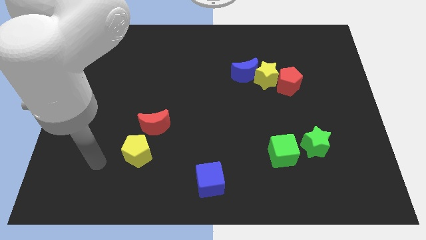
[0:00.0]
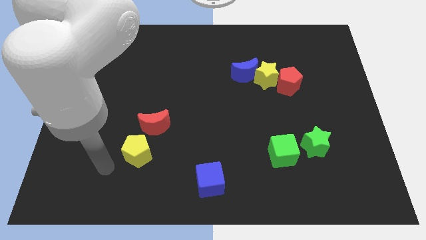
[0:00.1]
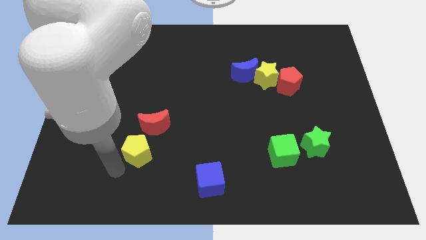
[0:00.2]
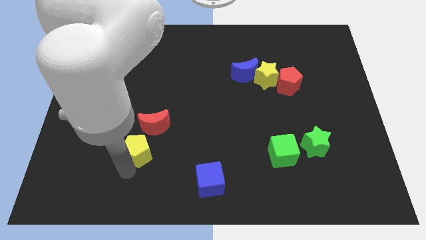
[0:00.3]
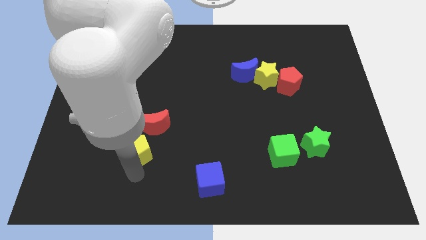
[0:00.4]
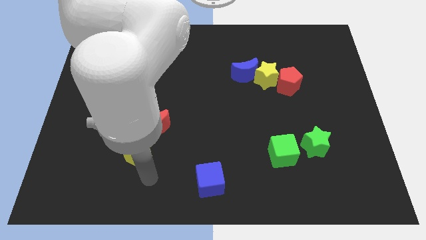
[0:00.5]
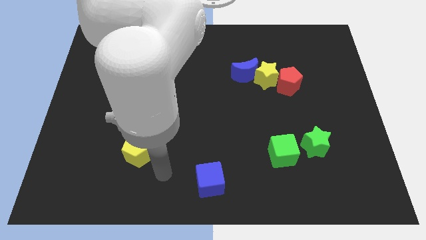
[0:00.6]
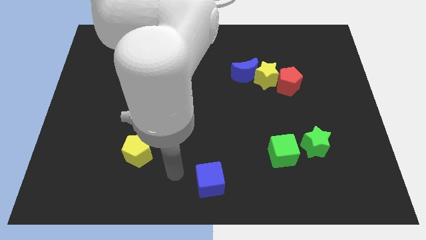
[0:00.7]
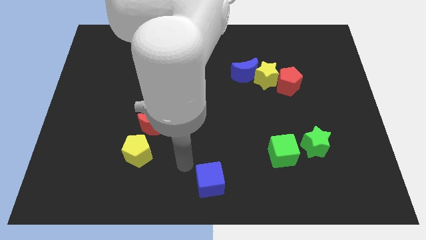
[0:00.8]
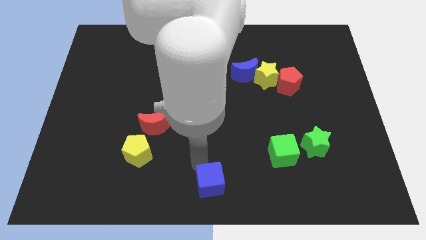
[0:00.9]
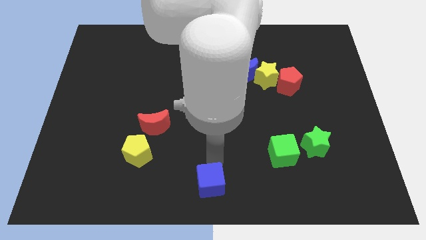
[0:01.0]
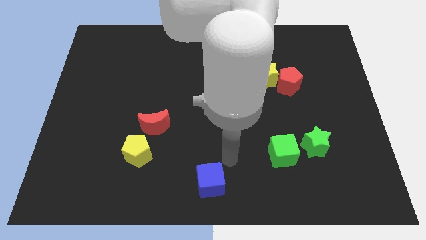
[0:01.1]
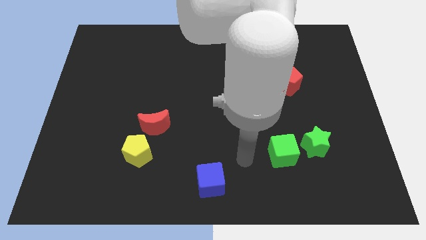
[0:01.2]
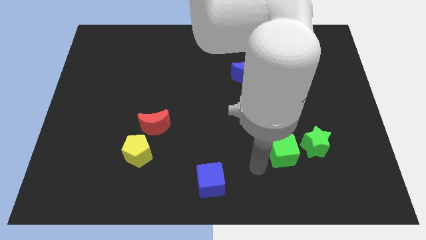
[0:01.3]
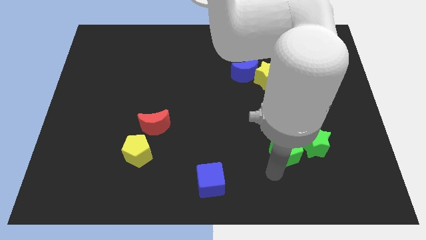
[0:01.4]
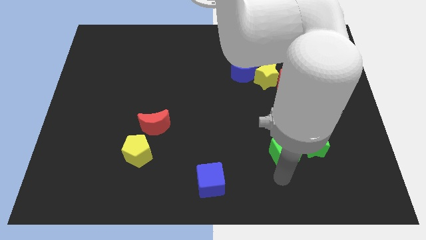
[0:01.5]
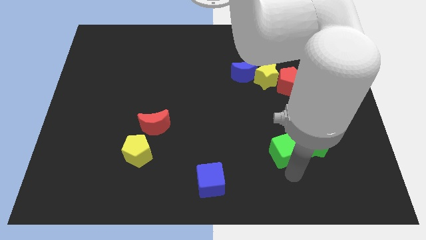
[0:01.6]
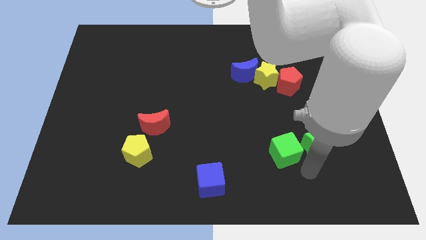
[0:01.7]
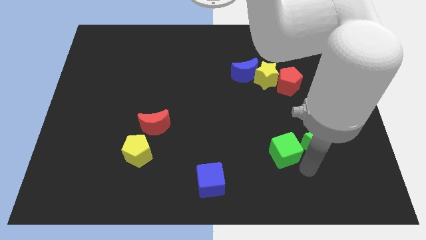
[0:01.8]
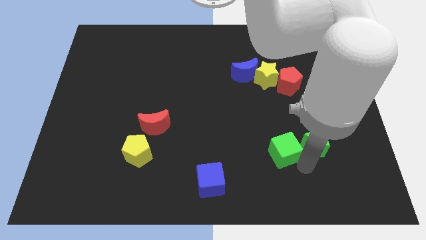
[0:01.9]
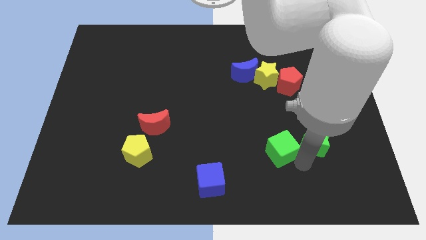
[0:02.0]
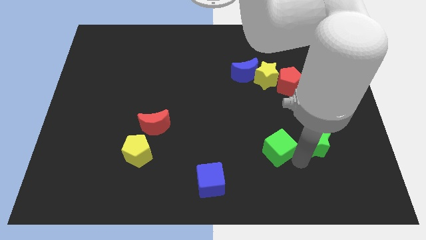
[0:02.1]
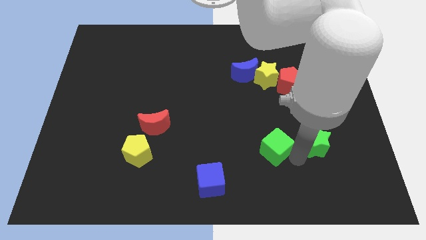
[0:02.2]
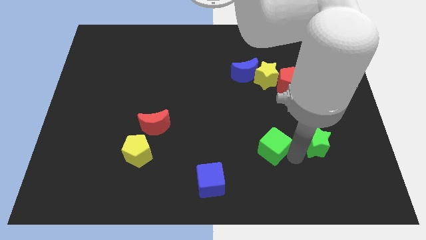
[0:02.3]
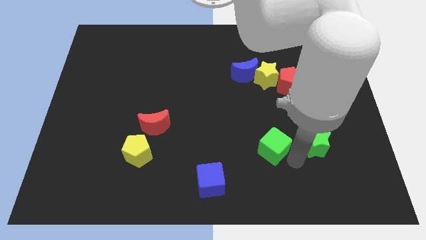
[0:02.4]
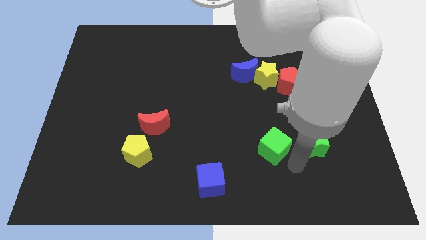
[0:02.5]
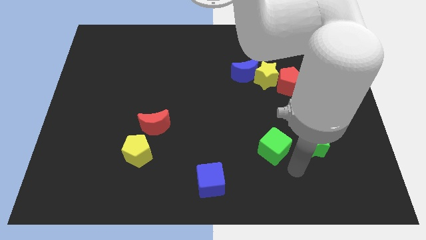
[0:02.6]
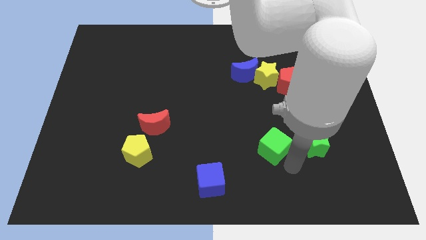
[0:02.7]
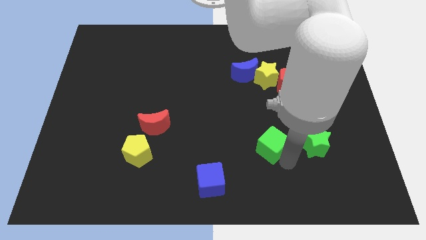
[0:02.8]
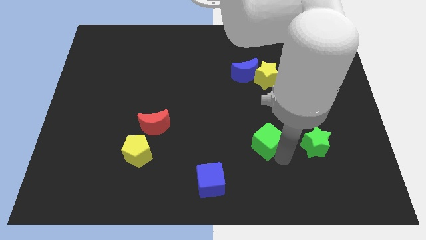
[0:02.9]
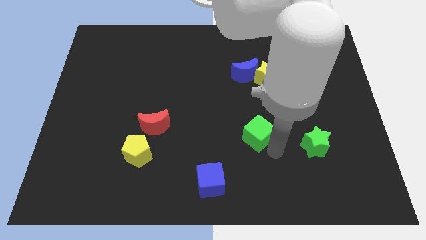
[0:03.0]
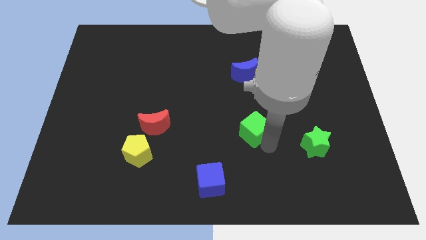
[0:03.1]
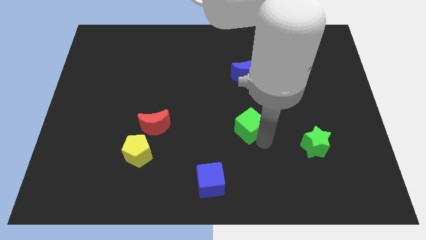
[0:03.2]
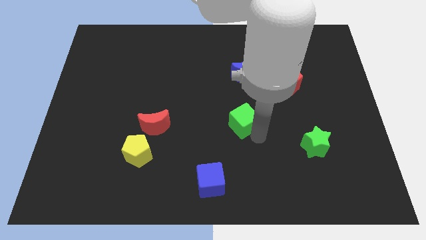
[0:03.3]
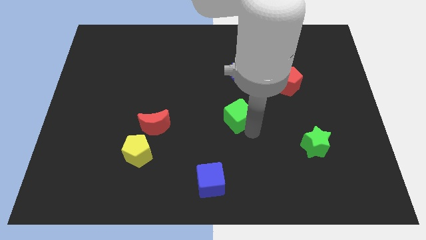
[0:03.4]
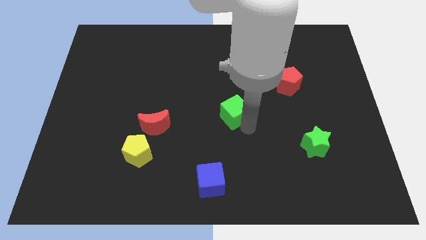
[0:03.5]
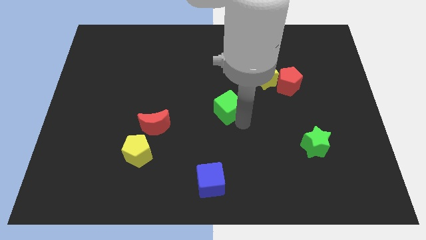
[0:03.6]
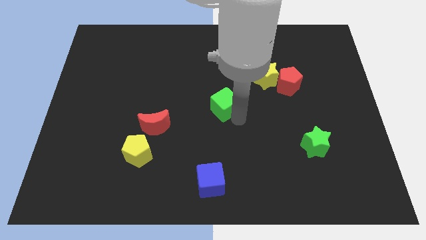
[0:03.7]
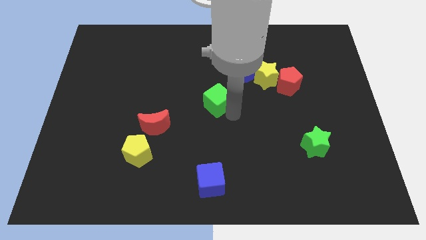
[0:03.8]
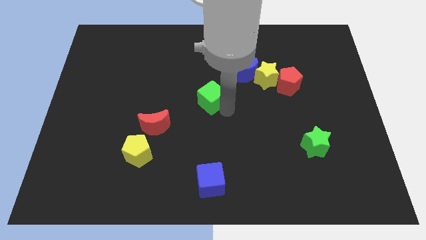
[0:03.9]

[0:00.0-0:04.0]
push the green cube diagonally up and left

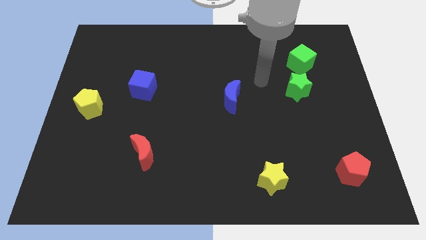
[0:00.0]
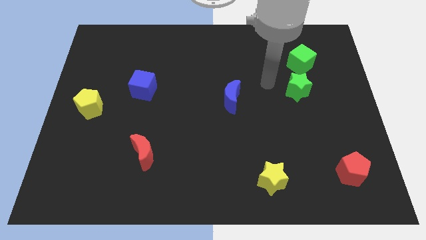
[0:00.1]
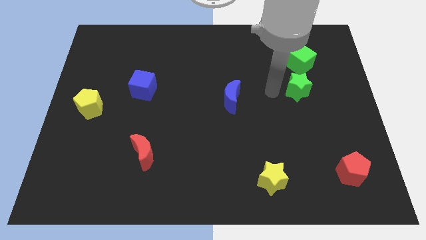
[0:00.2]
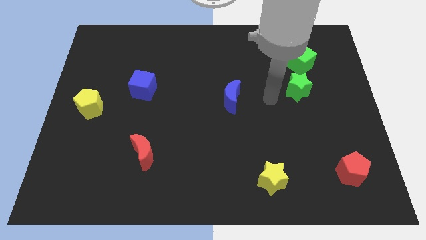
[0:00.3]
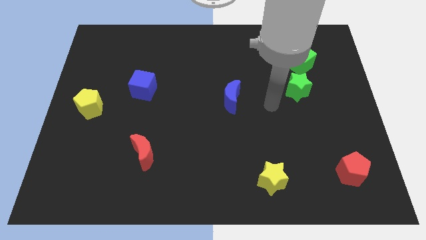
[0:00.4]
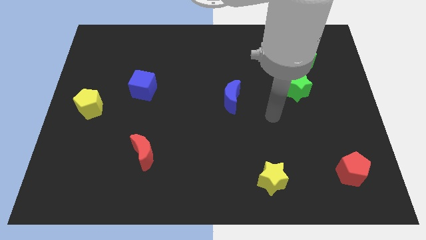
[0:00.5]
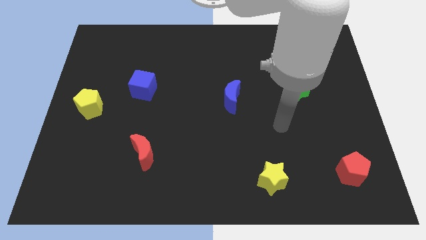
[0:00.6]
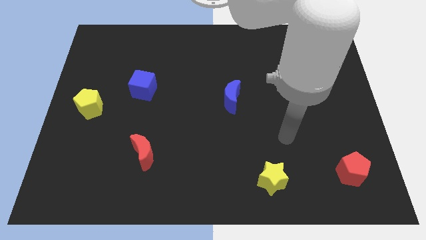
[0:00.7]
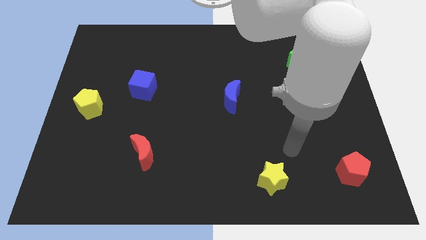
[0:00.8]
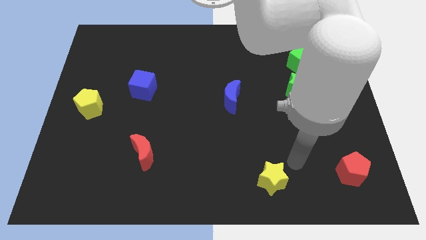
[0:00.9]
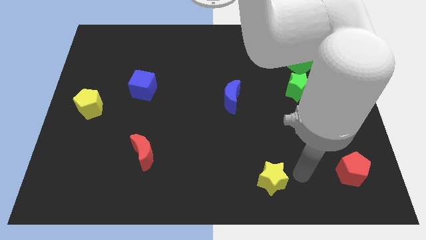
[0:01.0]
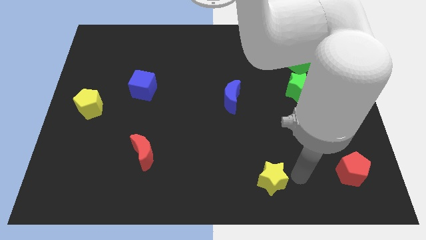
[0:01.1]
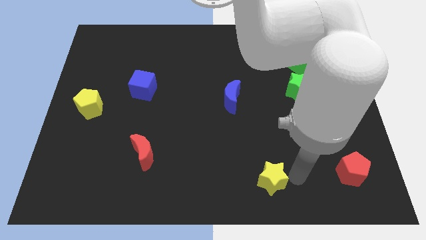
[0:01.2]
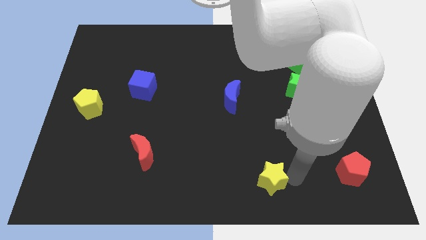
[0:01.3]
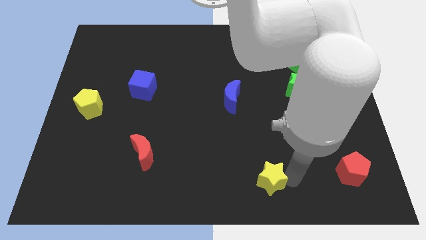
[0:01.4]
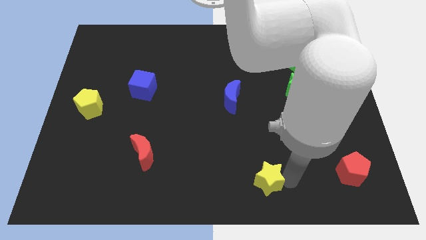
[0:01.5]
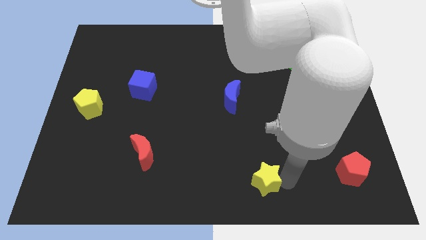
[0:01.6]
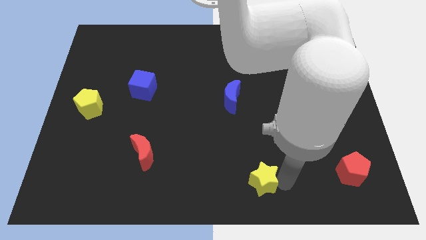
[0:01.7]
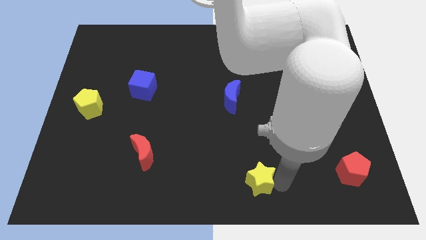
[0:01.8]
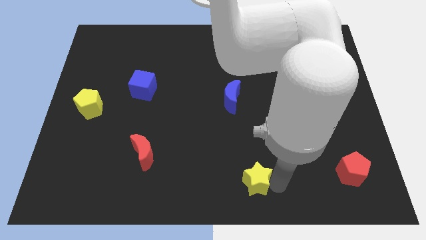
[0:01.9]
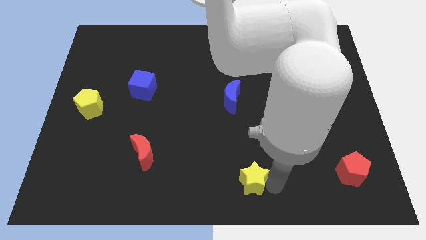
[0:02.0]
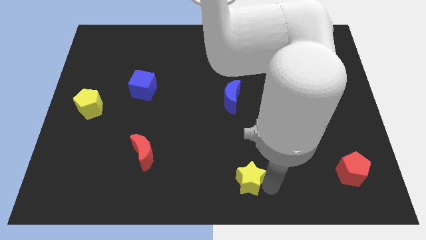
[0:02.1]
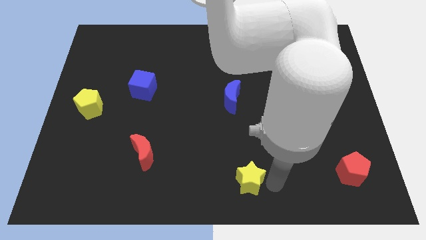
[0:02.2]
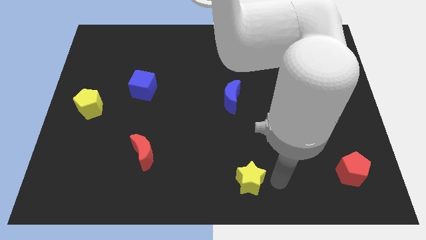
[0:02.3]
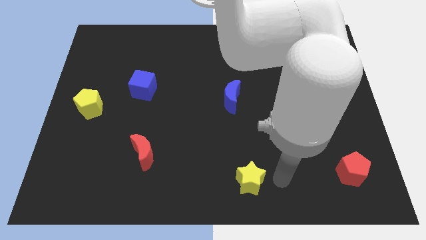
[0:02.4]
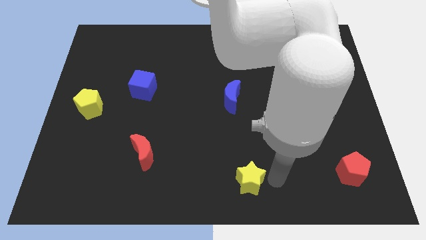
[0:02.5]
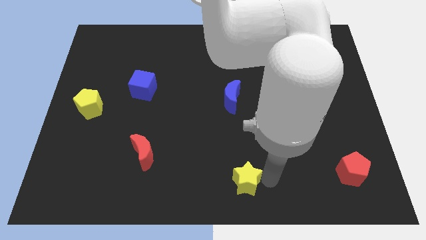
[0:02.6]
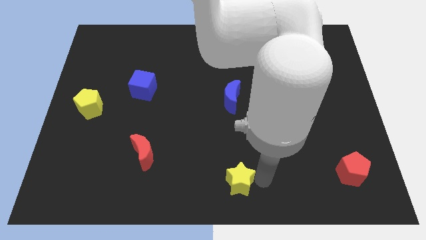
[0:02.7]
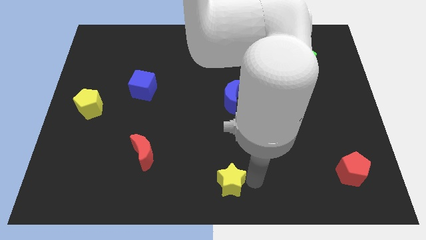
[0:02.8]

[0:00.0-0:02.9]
slightly slide the yellow star left

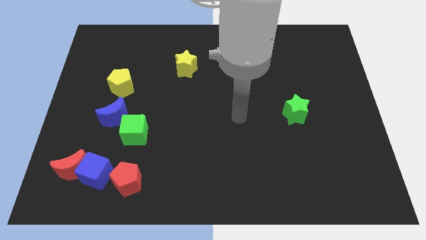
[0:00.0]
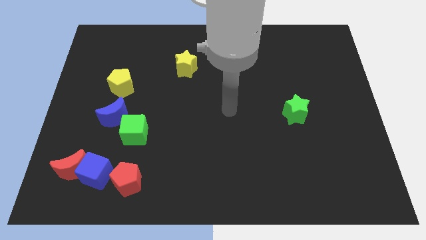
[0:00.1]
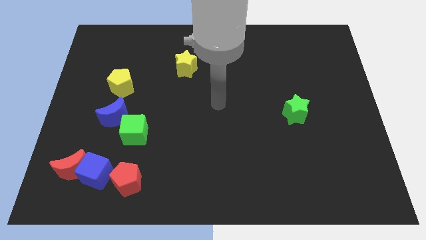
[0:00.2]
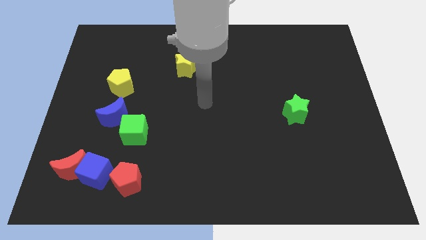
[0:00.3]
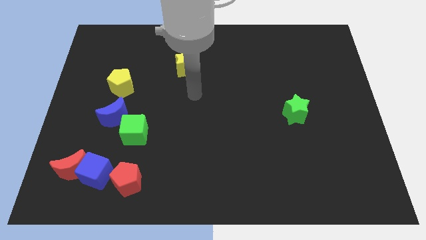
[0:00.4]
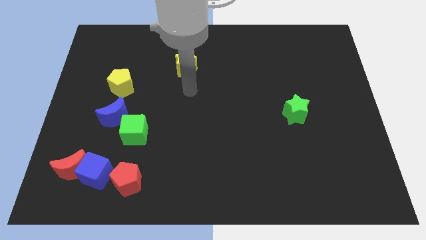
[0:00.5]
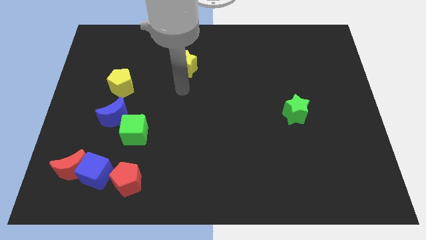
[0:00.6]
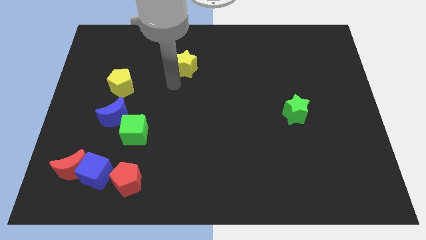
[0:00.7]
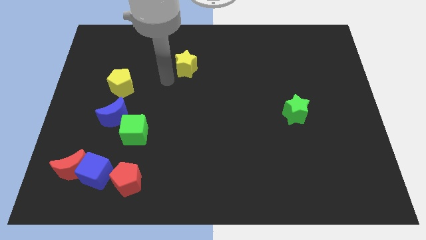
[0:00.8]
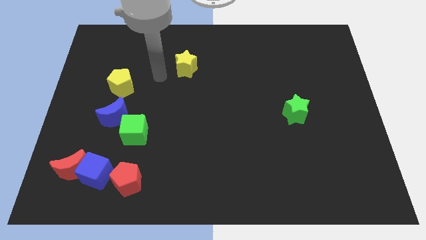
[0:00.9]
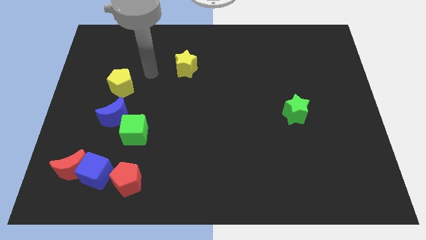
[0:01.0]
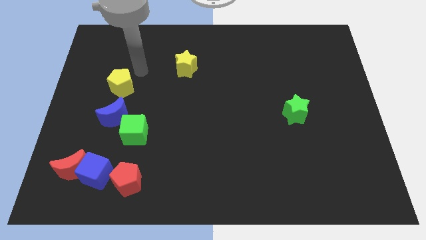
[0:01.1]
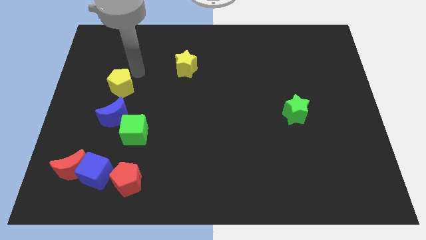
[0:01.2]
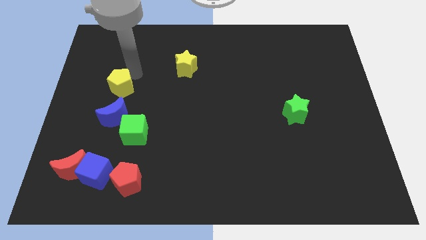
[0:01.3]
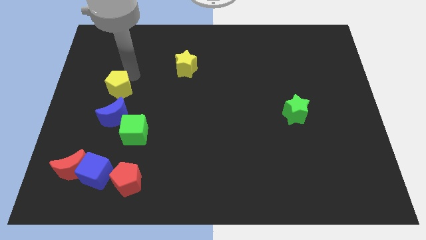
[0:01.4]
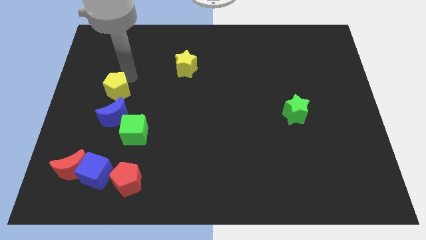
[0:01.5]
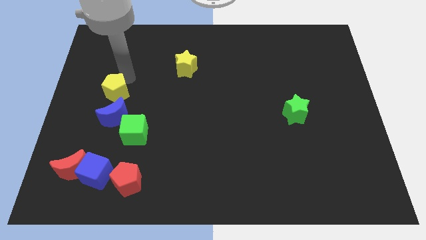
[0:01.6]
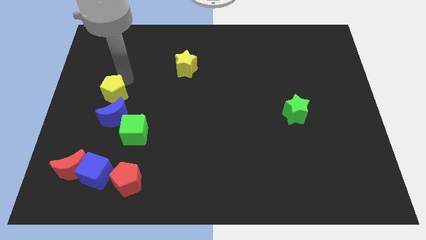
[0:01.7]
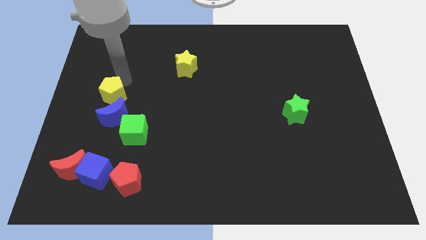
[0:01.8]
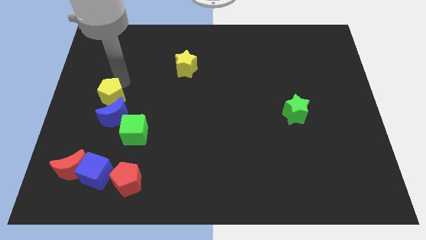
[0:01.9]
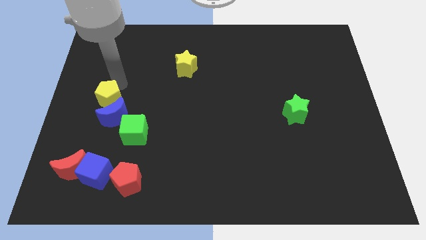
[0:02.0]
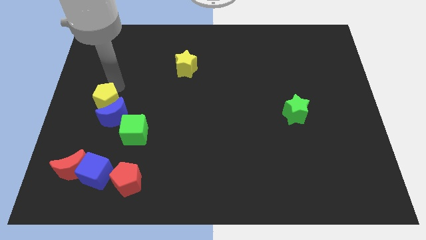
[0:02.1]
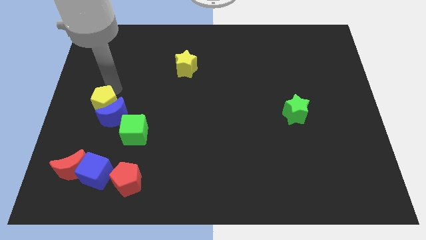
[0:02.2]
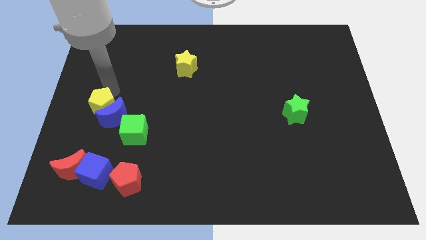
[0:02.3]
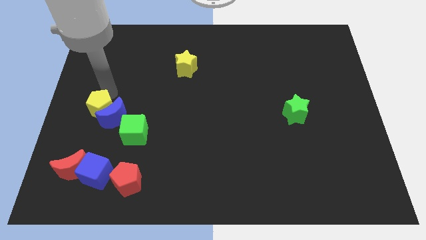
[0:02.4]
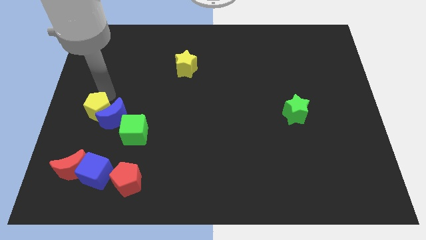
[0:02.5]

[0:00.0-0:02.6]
push the yellow pentagon a little downwards
